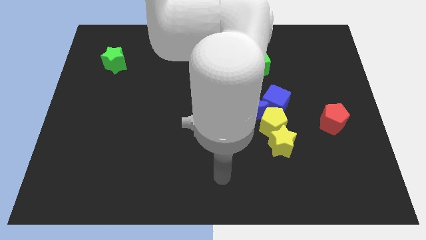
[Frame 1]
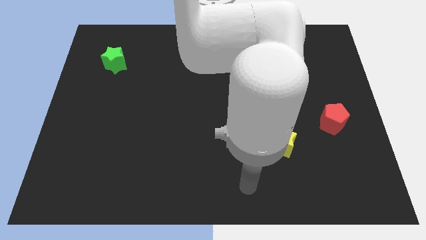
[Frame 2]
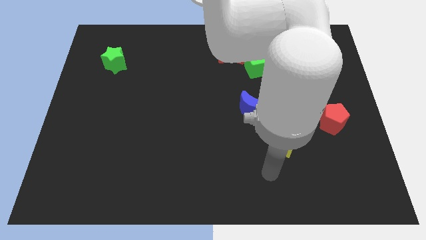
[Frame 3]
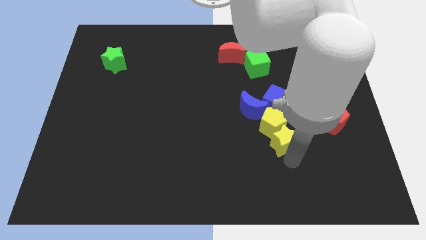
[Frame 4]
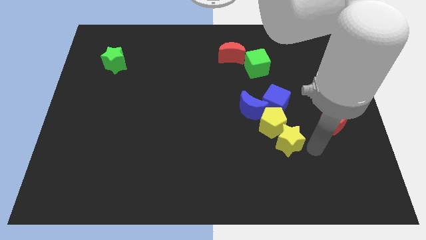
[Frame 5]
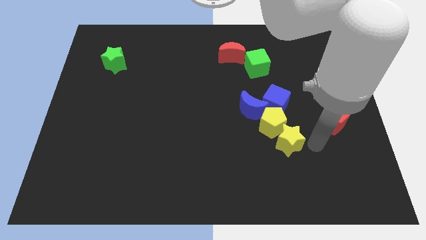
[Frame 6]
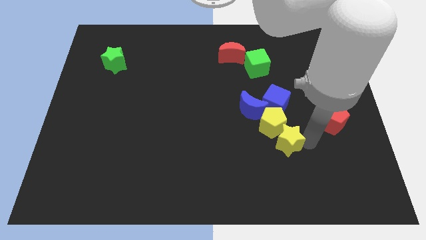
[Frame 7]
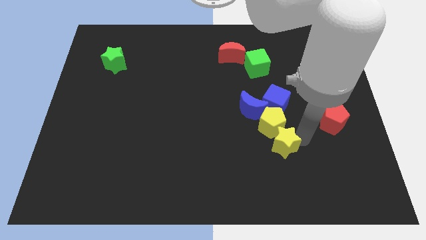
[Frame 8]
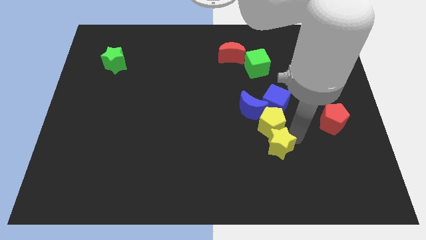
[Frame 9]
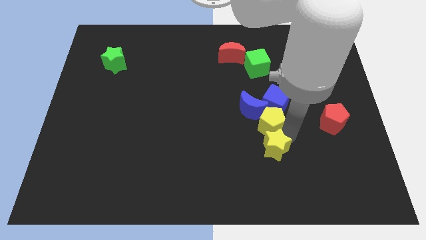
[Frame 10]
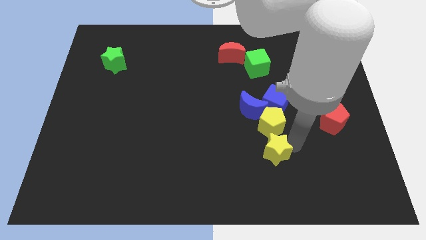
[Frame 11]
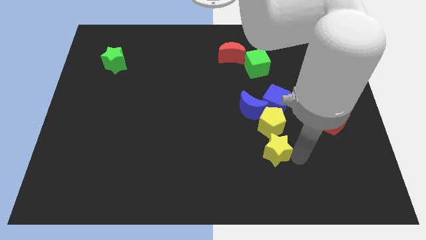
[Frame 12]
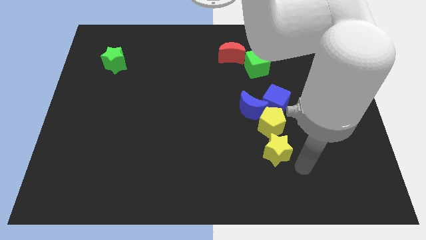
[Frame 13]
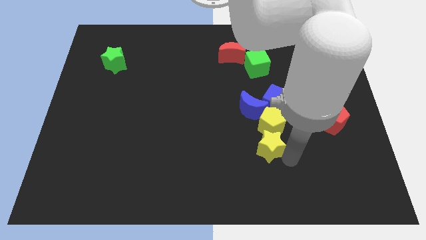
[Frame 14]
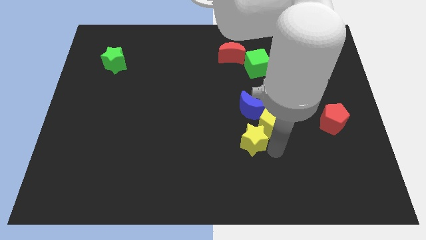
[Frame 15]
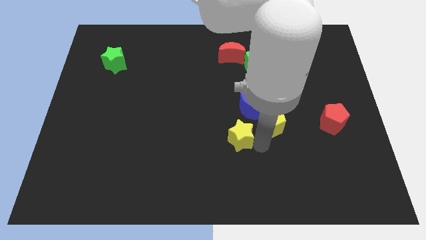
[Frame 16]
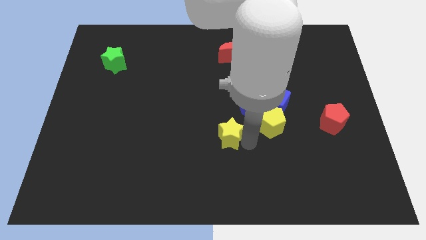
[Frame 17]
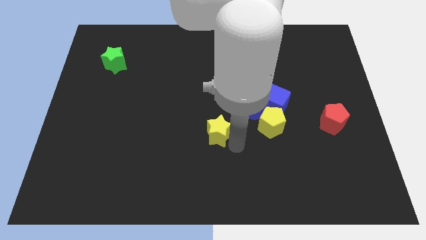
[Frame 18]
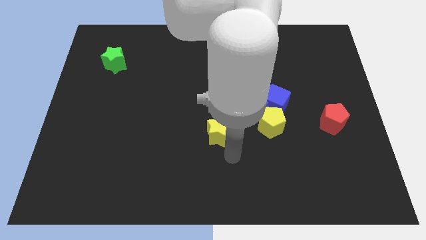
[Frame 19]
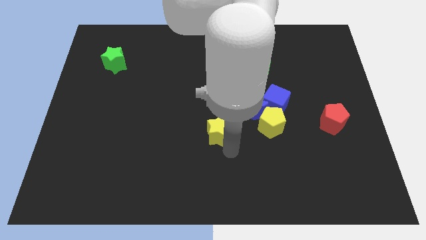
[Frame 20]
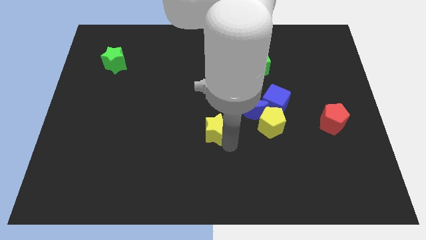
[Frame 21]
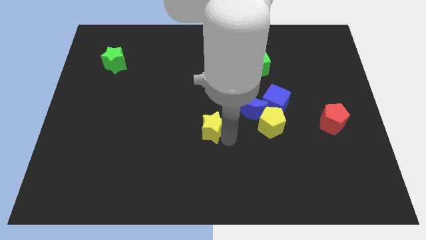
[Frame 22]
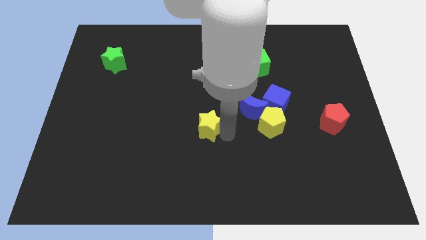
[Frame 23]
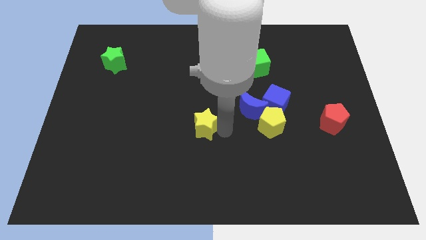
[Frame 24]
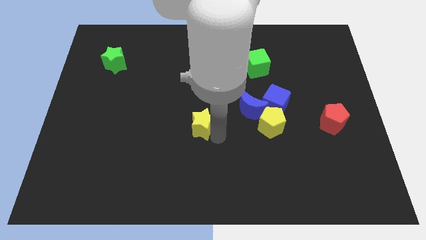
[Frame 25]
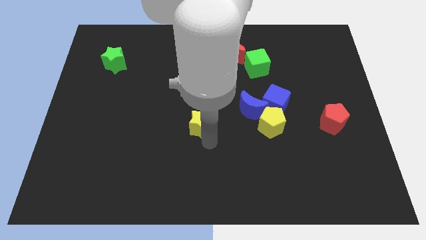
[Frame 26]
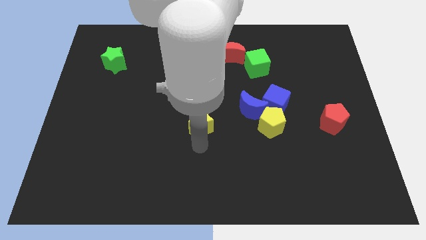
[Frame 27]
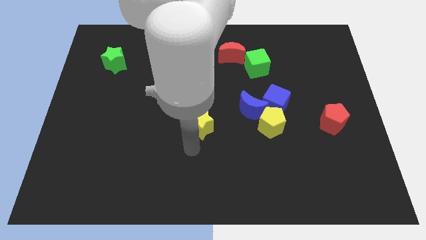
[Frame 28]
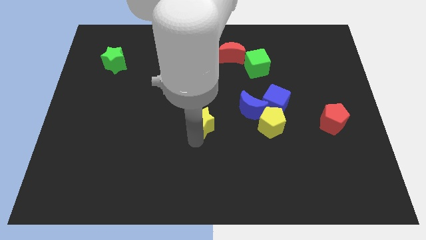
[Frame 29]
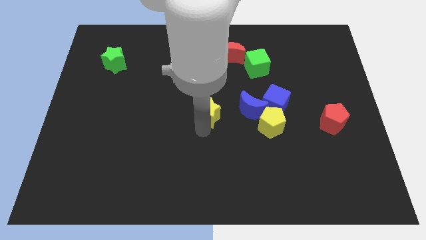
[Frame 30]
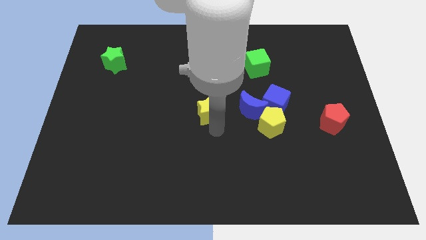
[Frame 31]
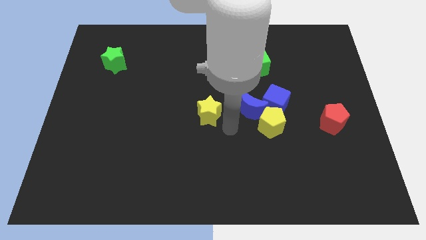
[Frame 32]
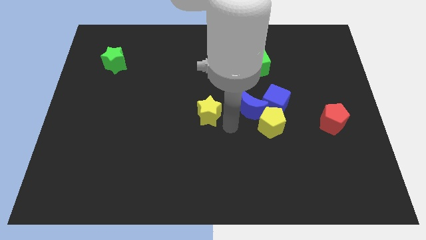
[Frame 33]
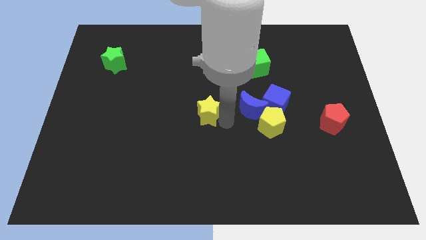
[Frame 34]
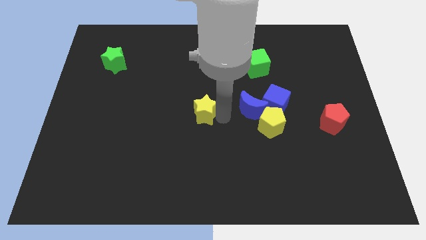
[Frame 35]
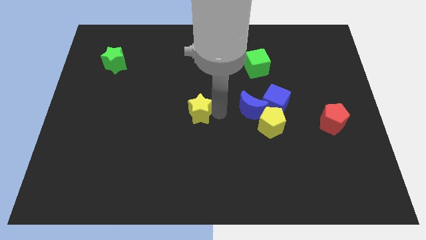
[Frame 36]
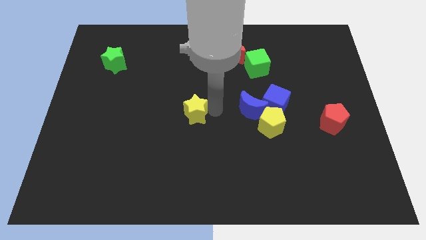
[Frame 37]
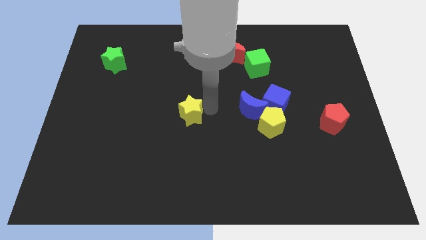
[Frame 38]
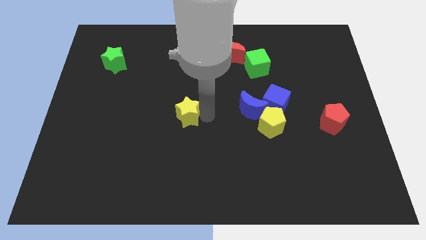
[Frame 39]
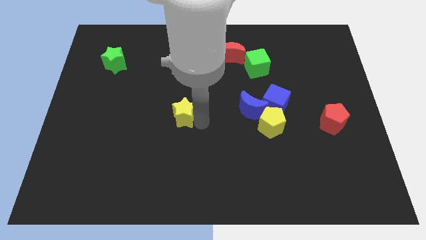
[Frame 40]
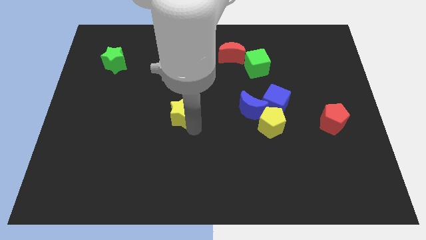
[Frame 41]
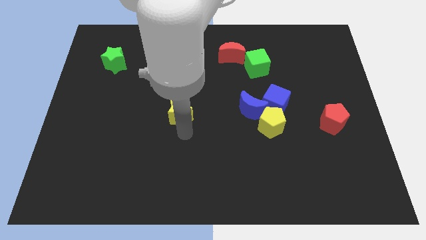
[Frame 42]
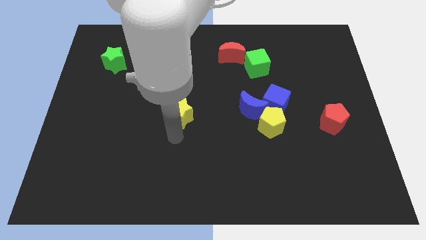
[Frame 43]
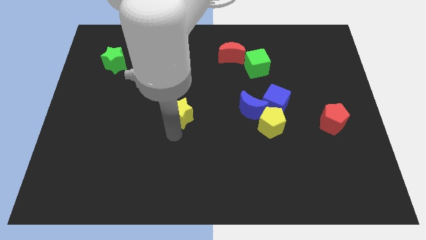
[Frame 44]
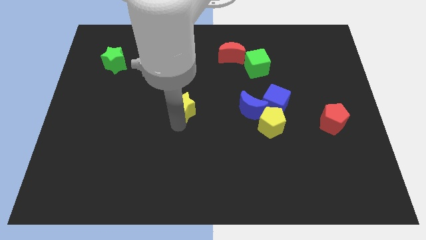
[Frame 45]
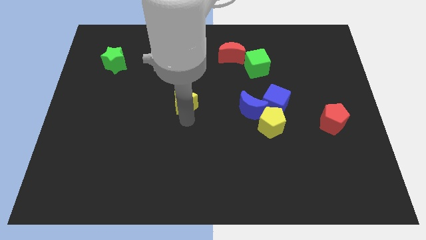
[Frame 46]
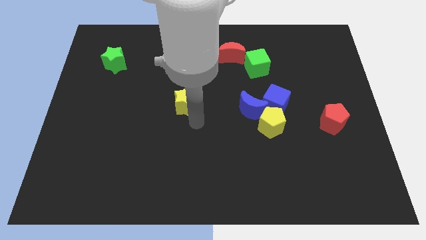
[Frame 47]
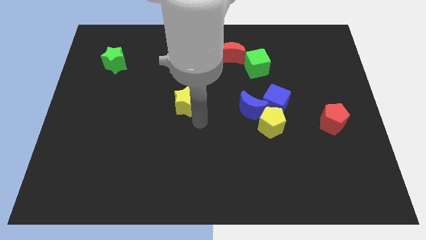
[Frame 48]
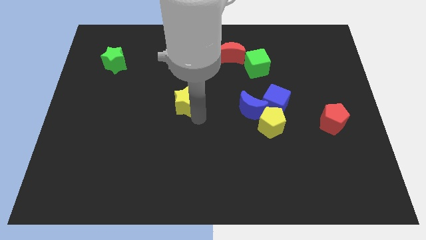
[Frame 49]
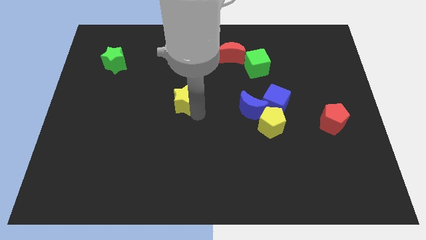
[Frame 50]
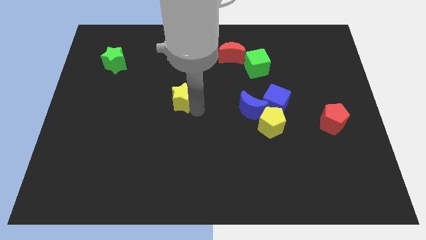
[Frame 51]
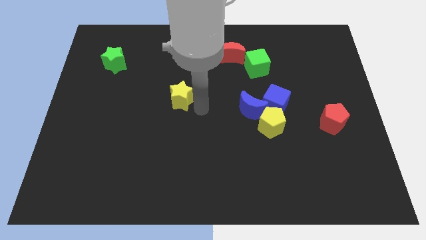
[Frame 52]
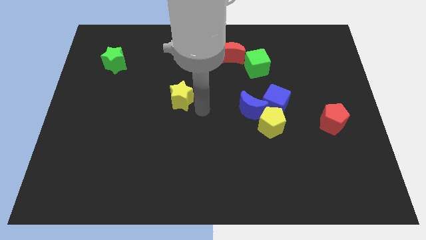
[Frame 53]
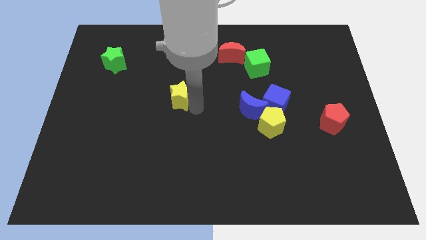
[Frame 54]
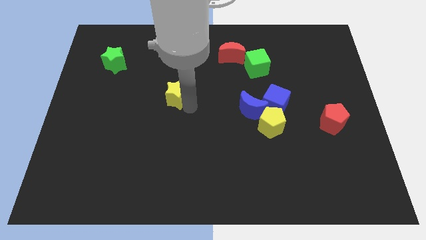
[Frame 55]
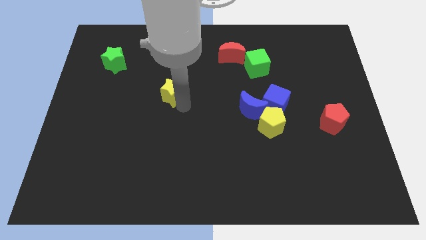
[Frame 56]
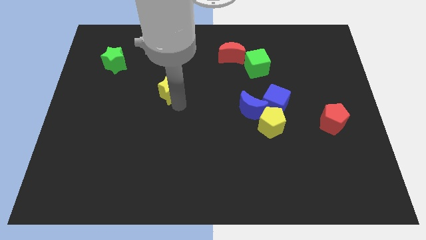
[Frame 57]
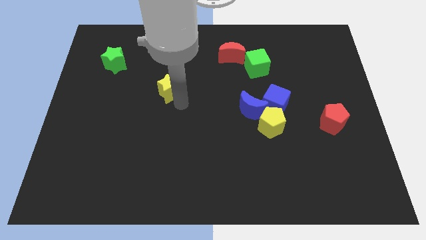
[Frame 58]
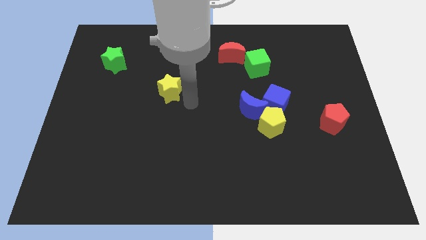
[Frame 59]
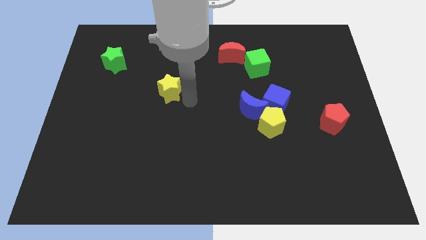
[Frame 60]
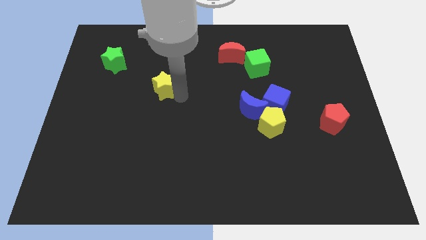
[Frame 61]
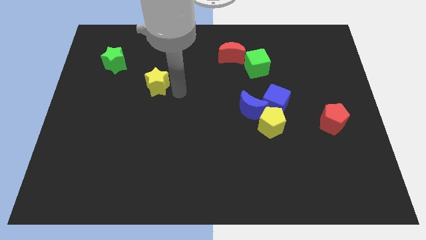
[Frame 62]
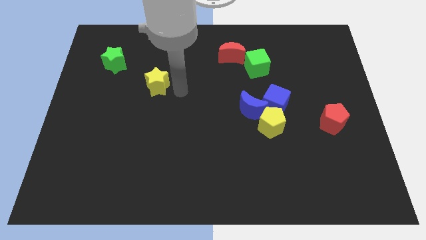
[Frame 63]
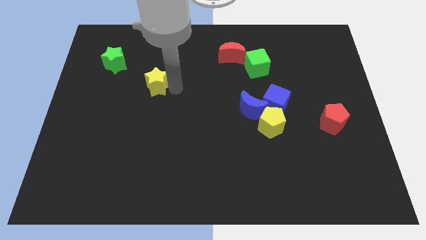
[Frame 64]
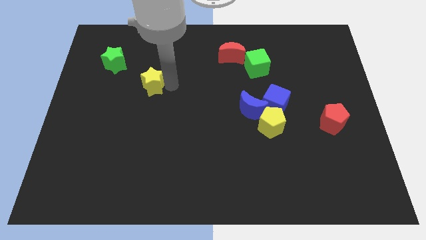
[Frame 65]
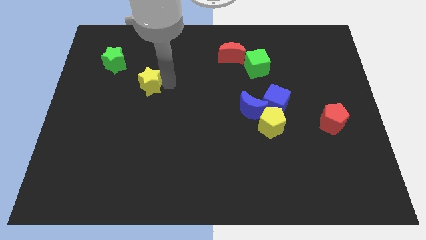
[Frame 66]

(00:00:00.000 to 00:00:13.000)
push the yellow star diagonally down and to the right of the green star

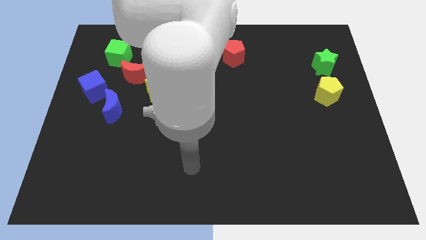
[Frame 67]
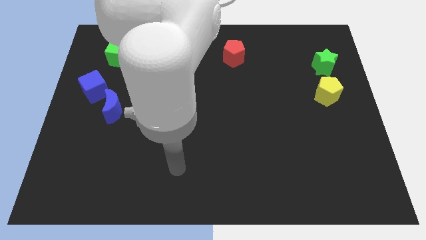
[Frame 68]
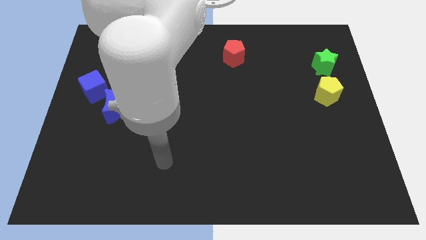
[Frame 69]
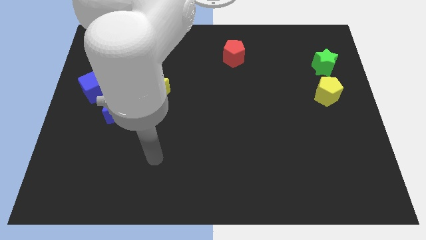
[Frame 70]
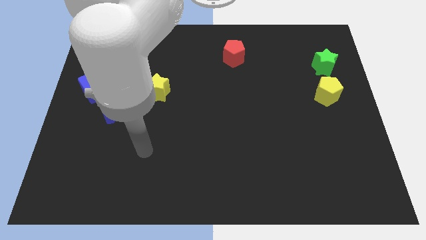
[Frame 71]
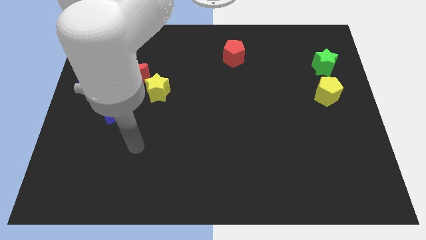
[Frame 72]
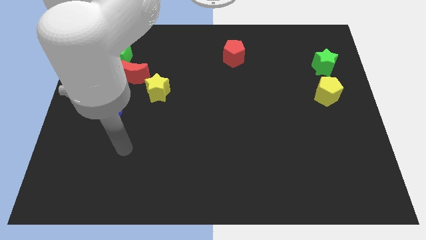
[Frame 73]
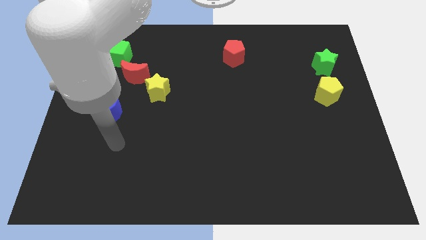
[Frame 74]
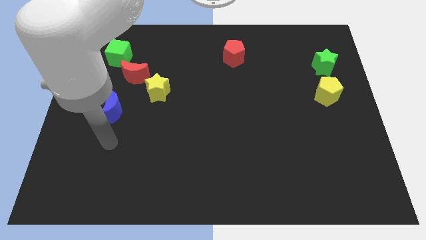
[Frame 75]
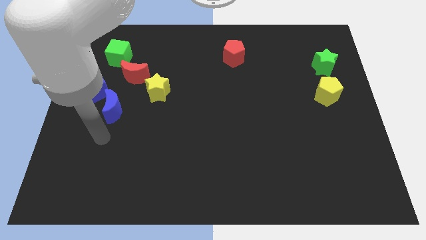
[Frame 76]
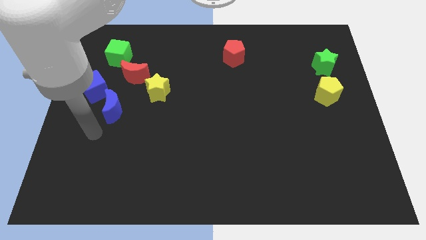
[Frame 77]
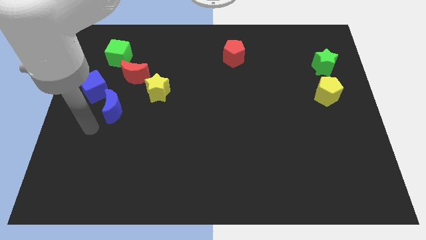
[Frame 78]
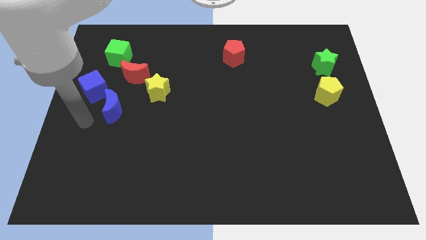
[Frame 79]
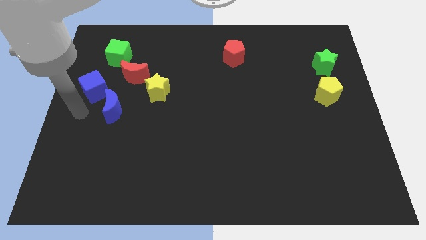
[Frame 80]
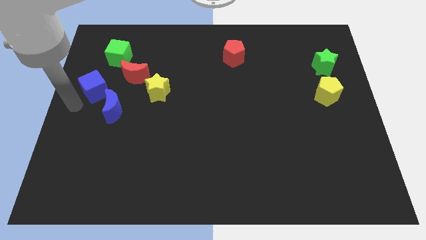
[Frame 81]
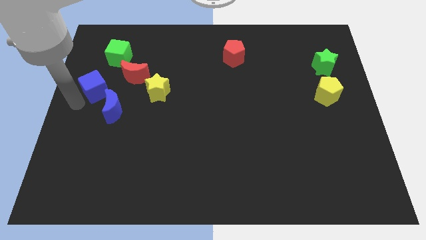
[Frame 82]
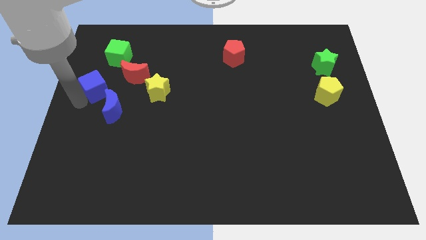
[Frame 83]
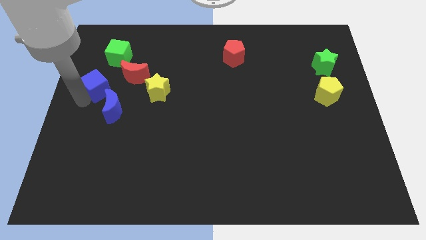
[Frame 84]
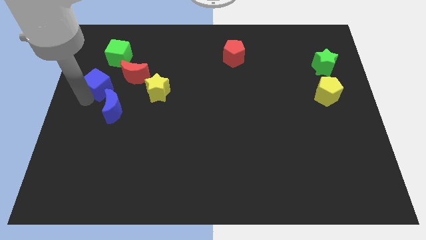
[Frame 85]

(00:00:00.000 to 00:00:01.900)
slide the blue cube above the blue moon
